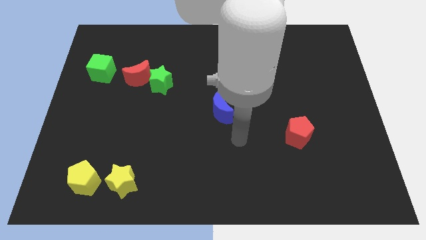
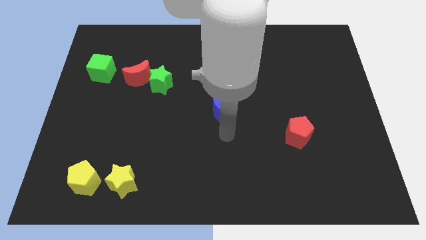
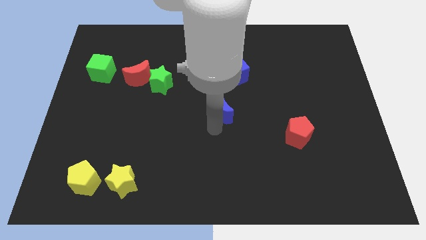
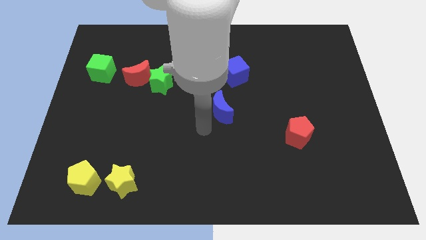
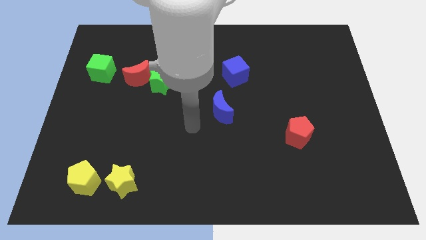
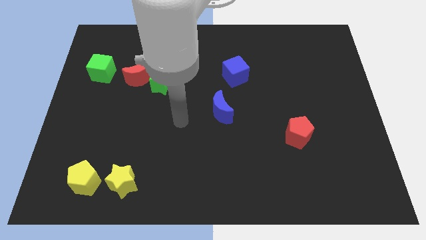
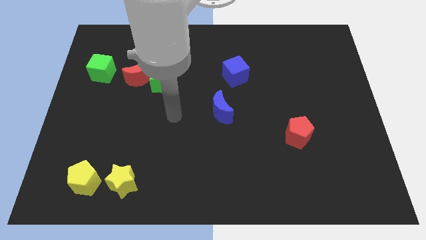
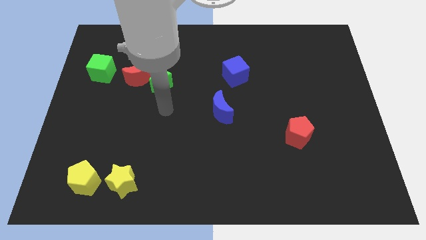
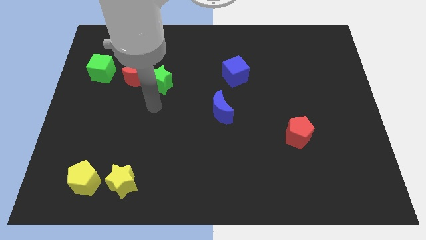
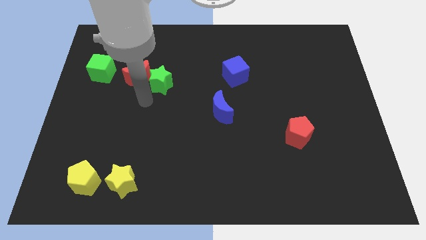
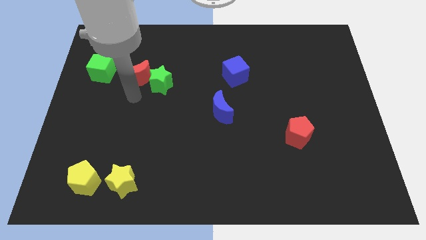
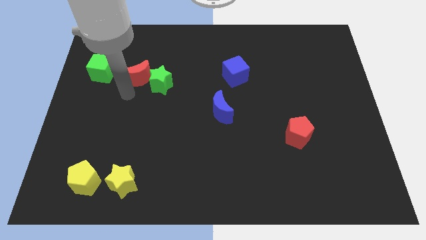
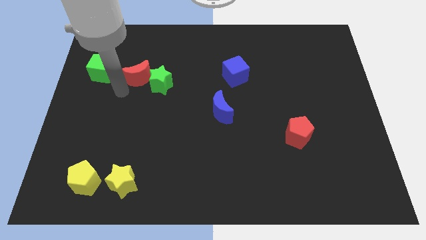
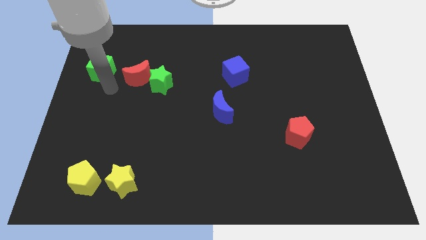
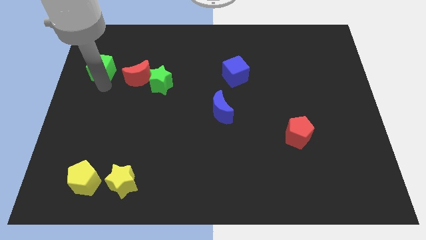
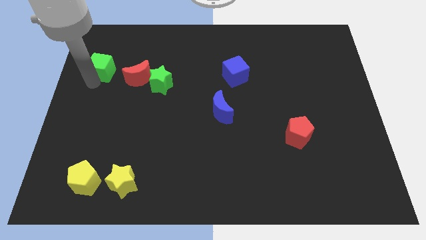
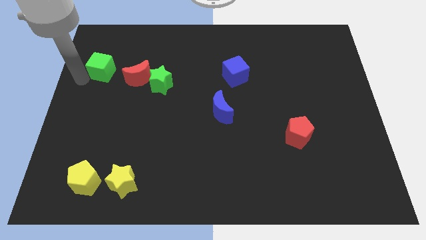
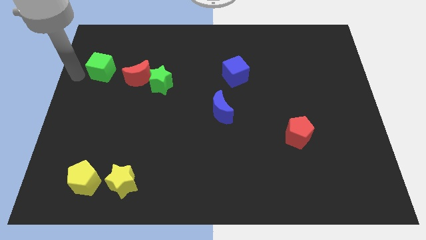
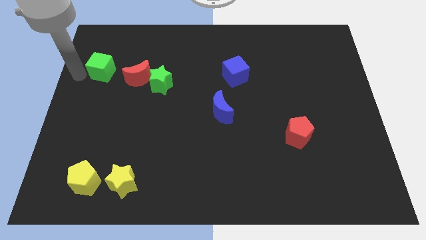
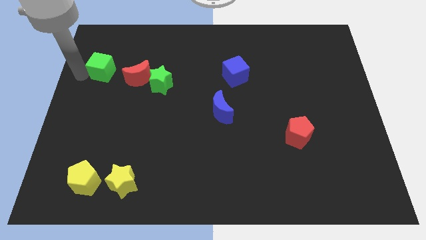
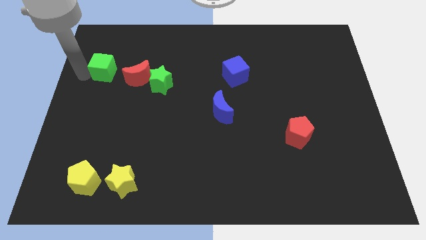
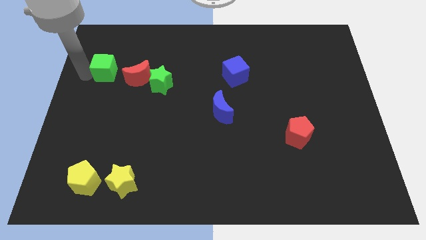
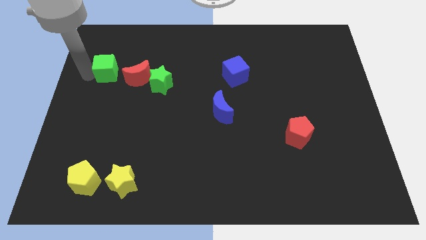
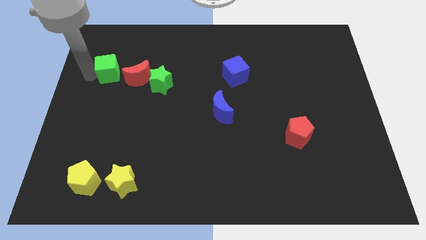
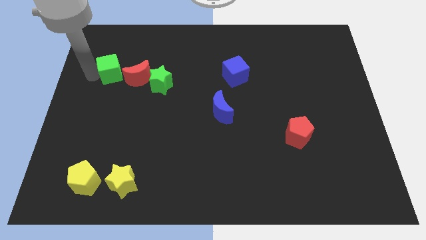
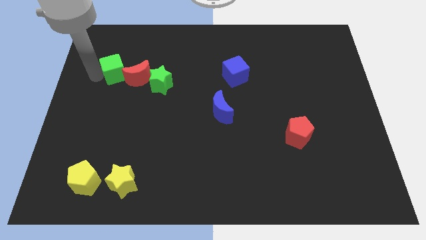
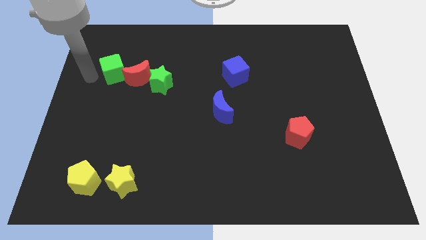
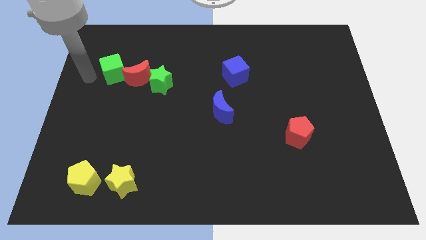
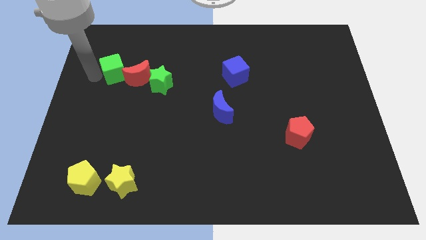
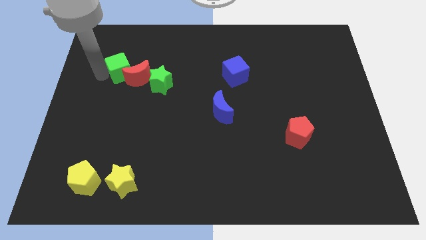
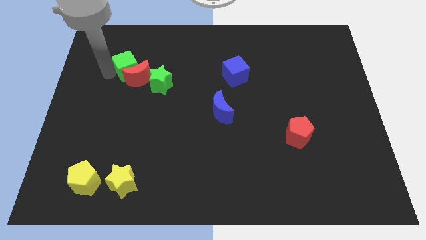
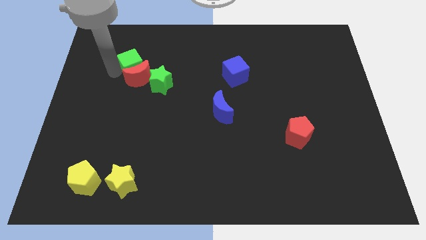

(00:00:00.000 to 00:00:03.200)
slightly slide the green cube to the right

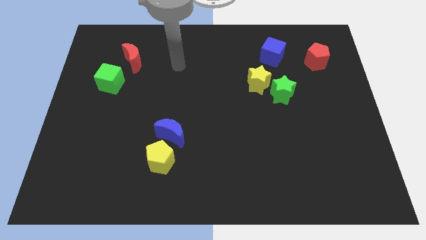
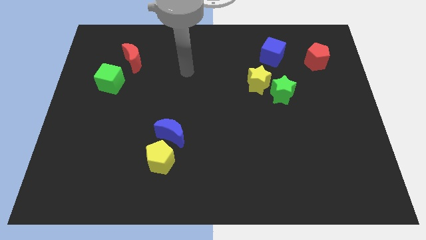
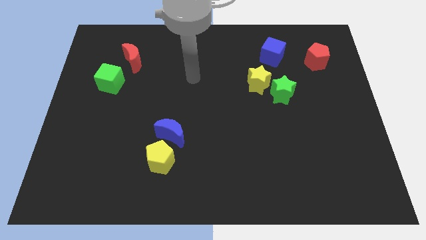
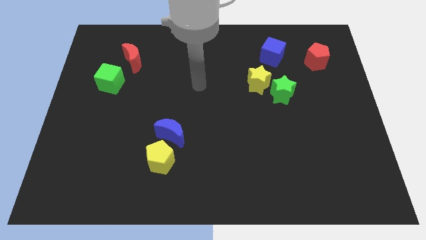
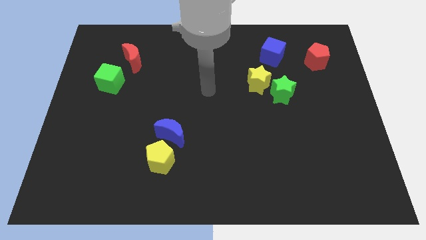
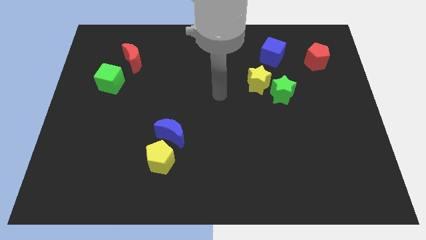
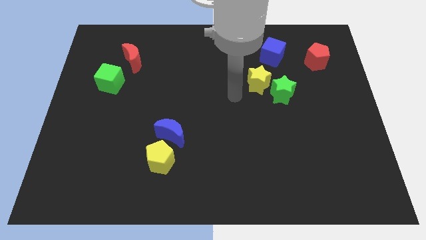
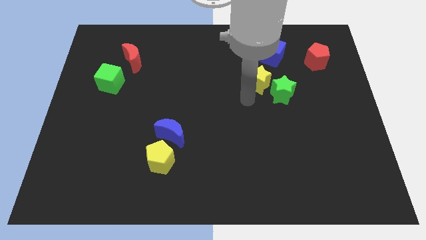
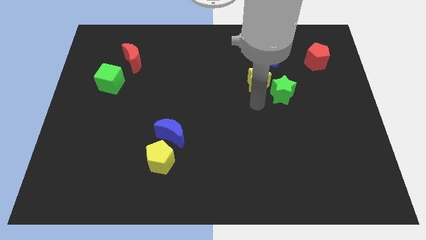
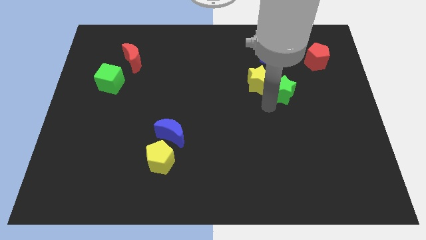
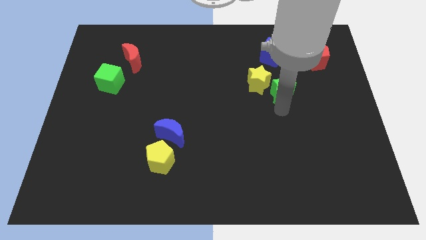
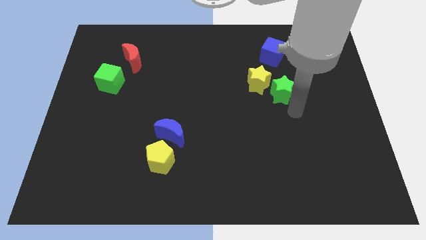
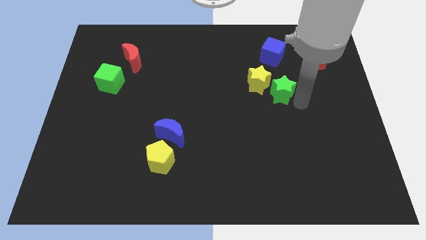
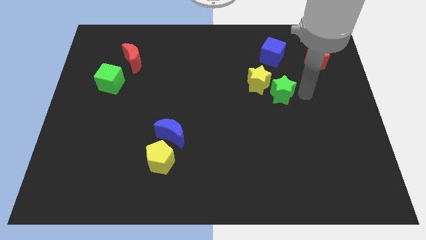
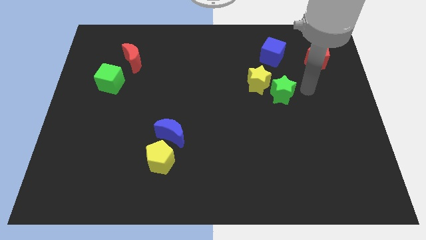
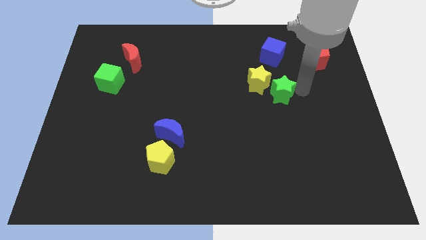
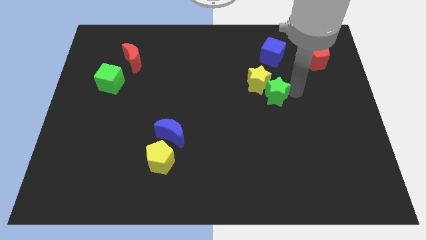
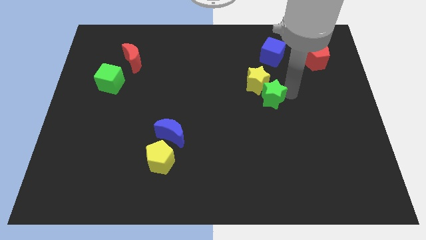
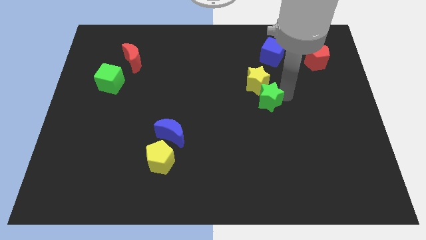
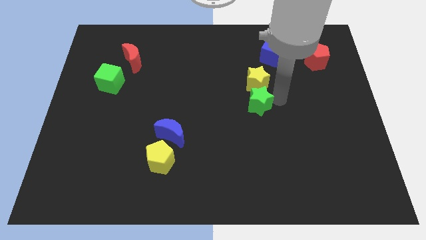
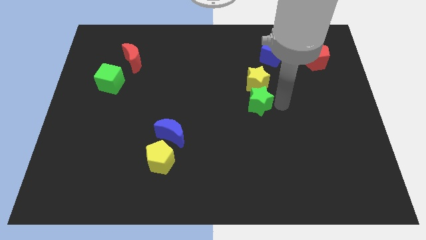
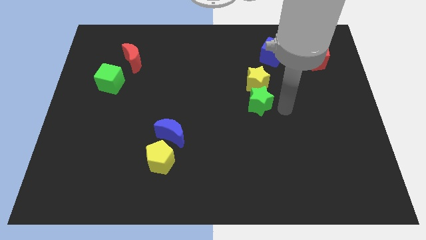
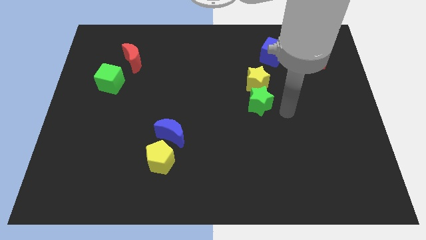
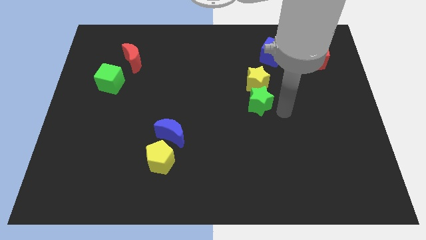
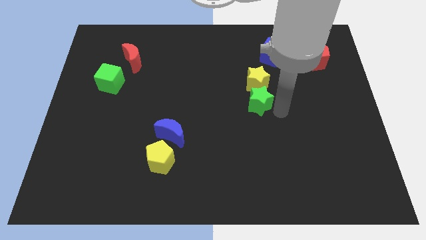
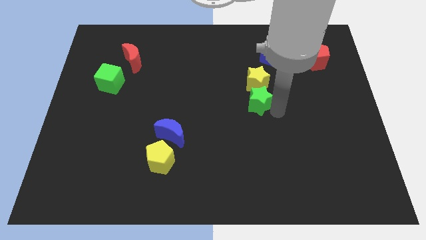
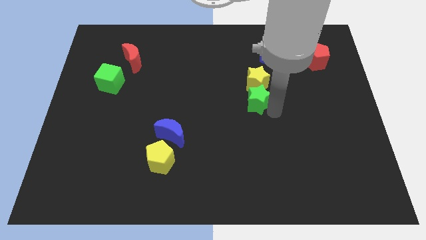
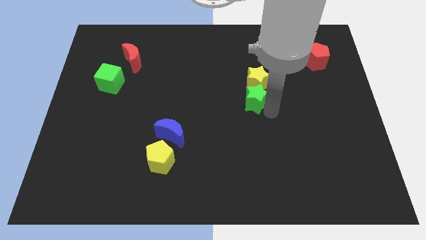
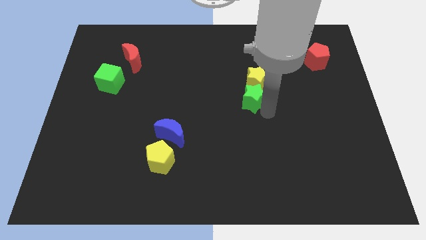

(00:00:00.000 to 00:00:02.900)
slide the green star left slightly

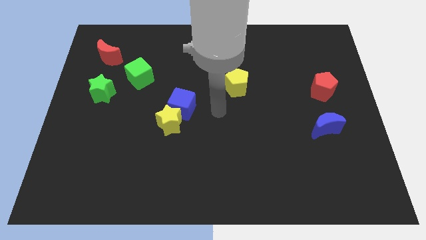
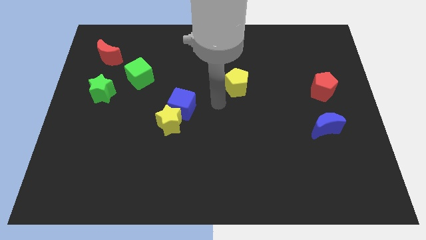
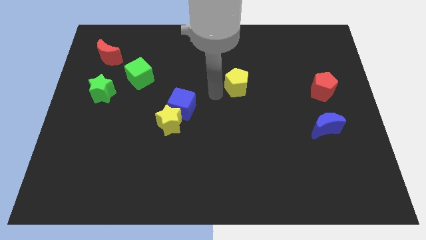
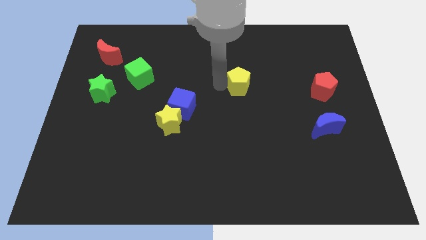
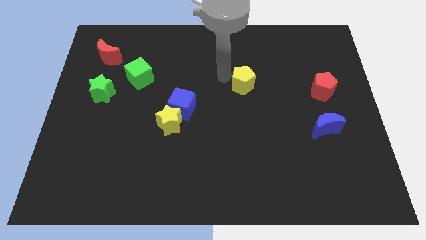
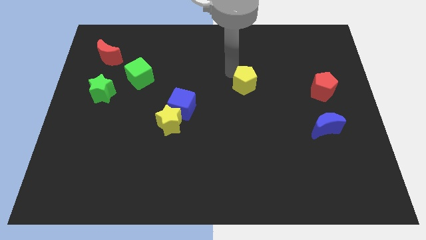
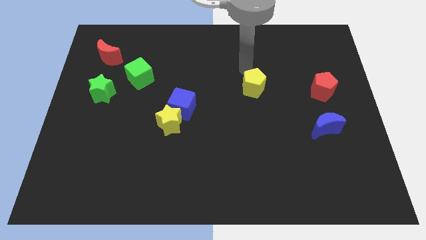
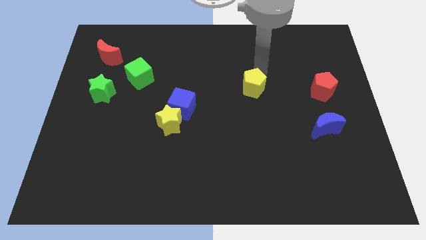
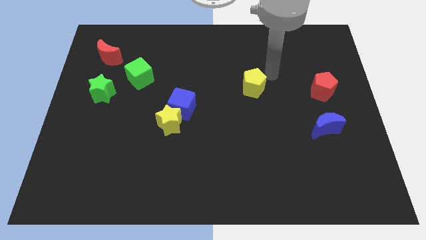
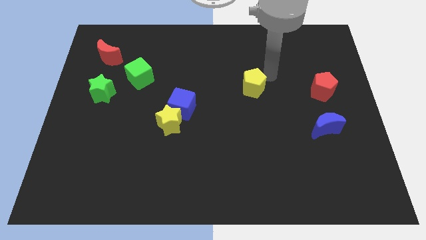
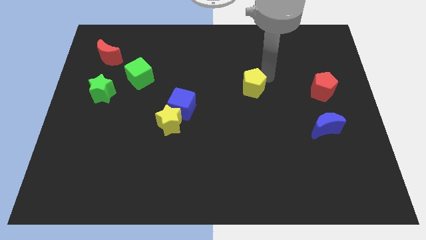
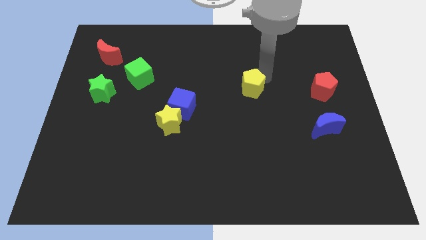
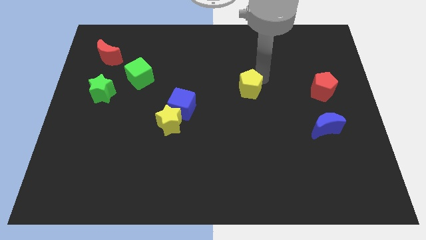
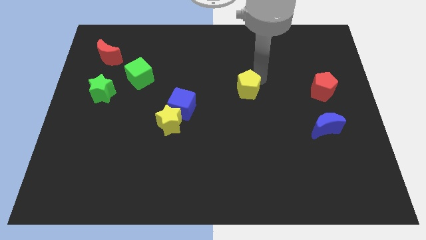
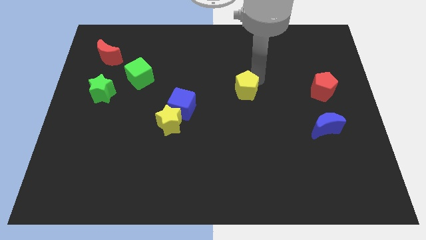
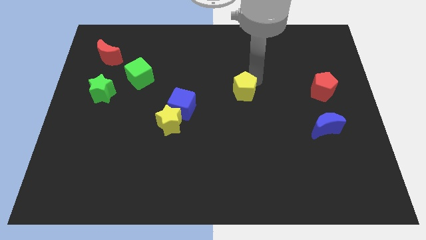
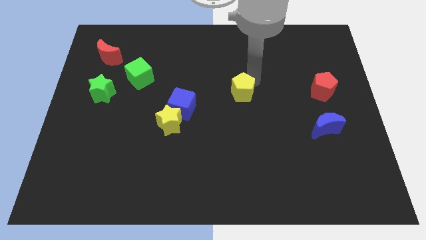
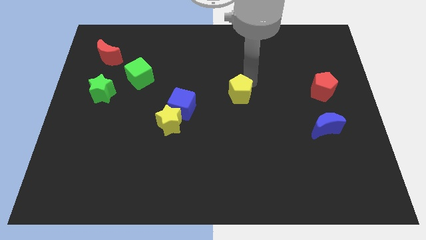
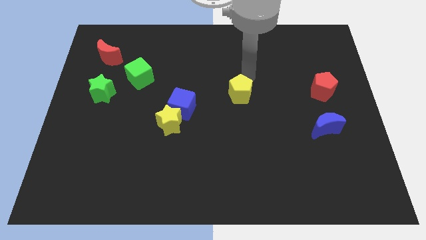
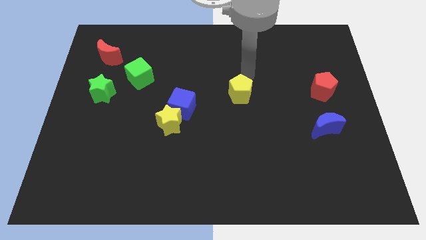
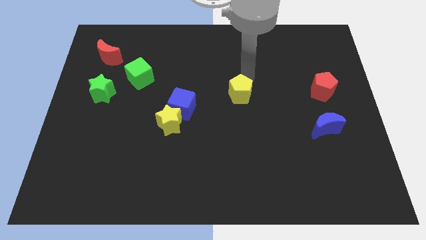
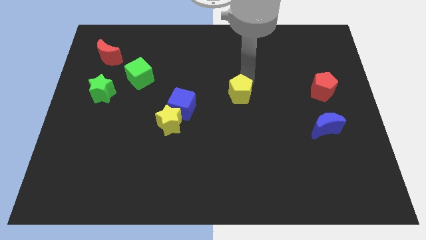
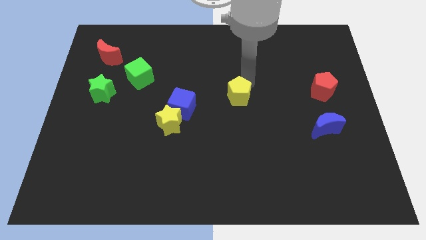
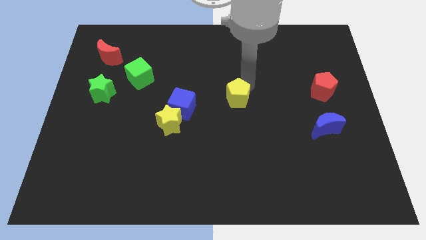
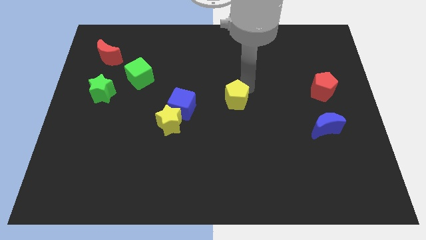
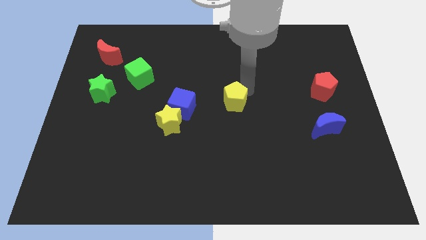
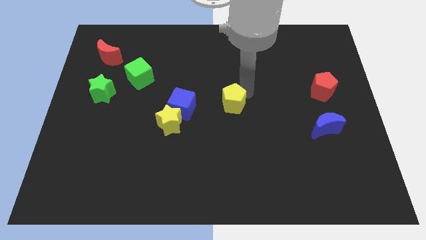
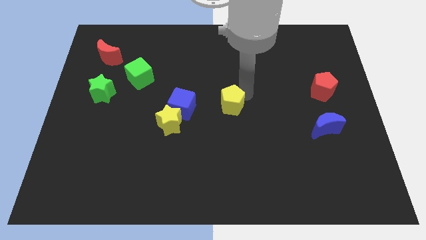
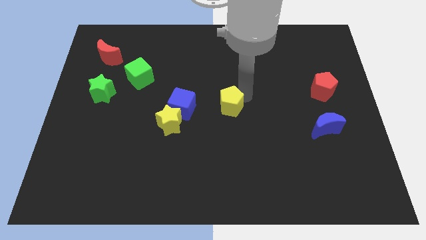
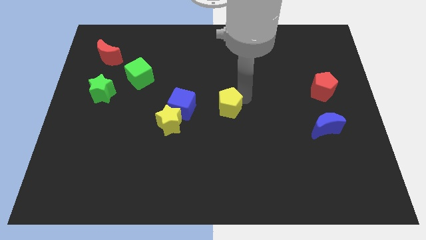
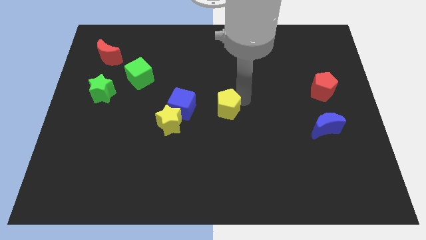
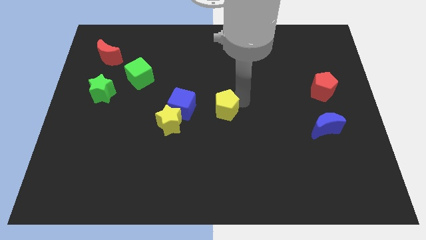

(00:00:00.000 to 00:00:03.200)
move the yellow pentagon somewhat downwards
